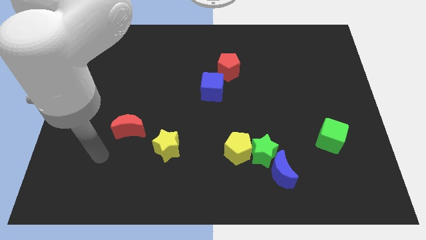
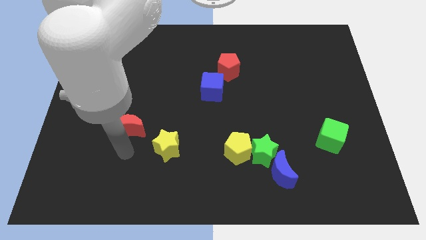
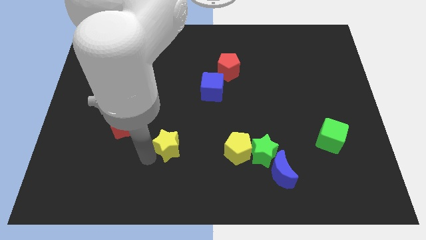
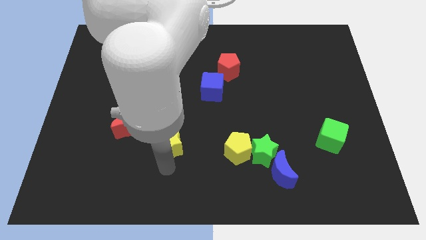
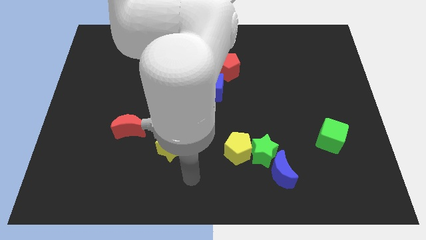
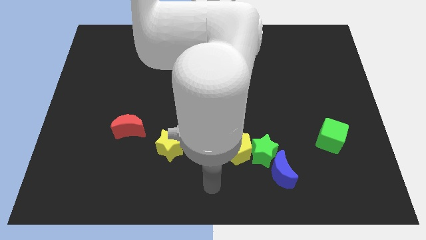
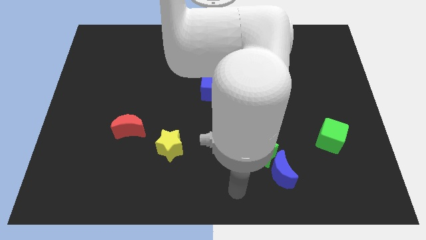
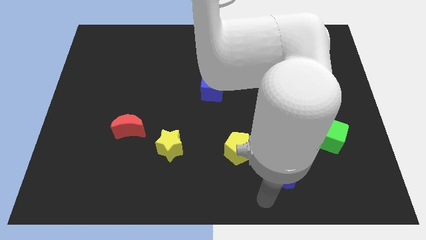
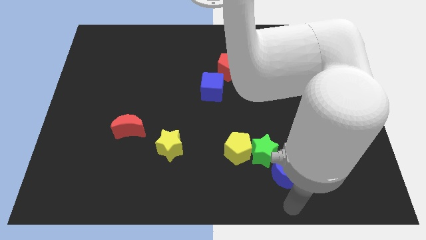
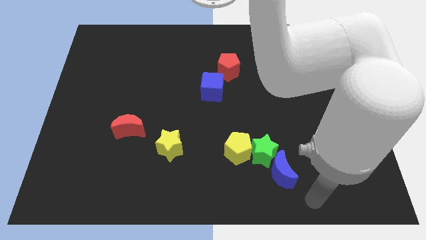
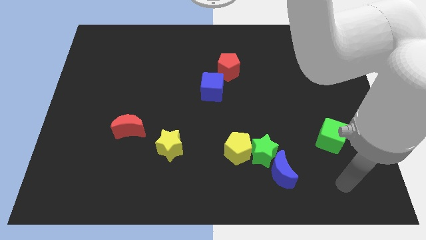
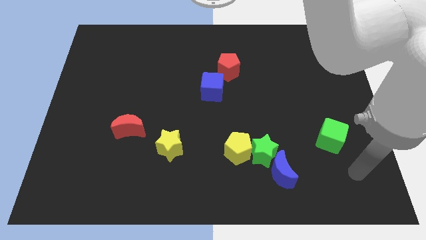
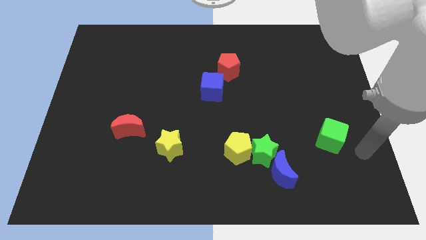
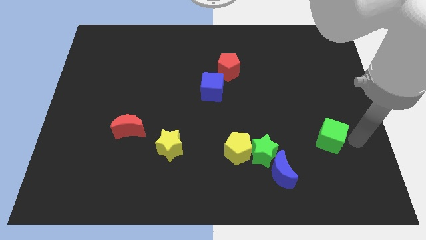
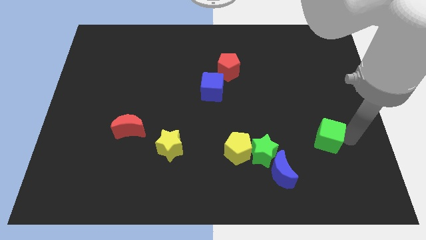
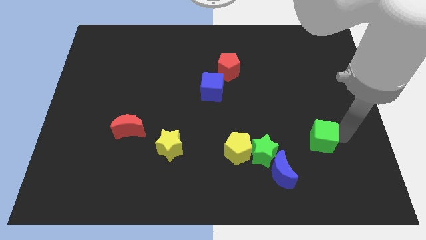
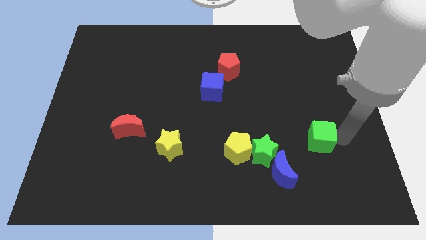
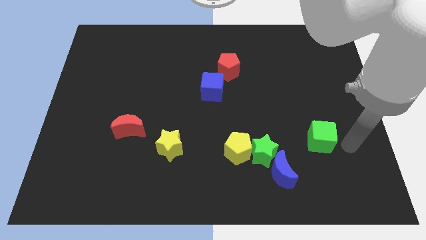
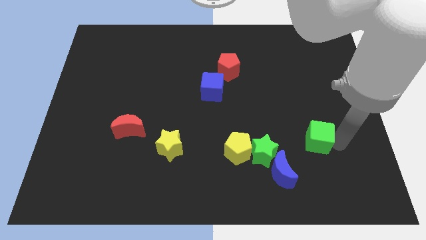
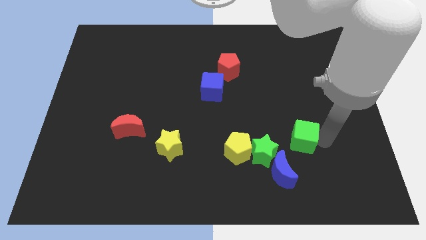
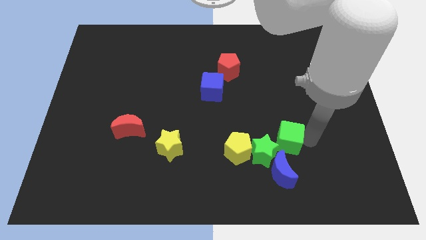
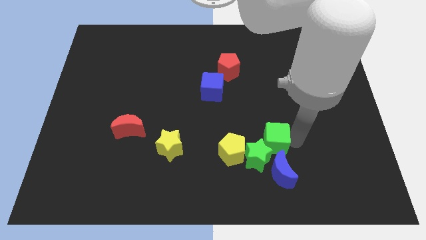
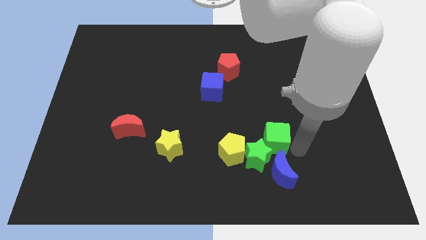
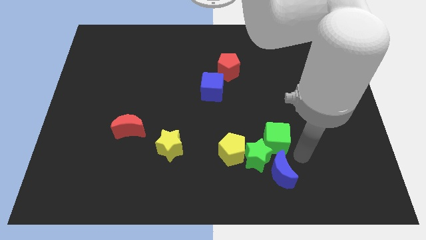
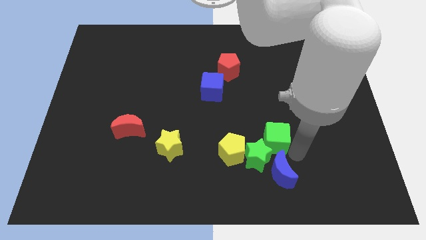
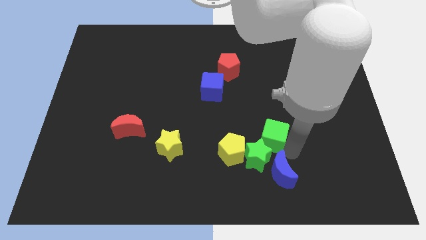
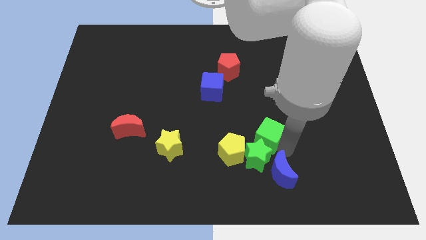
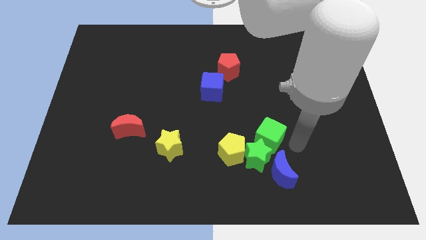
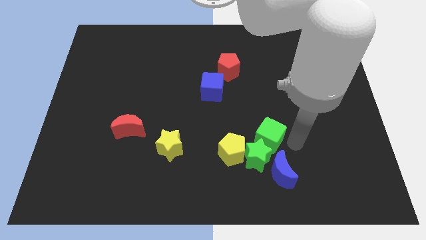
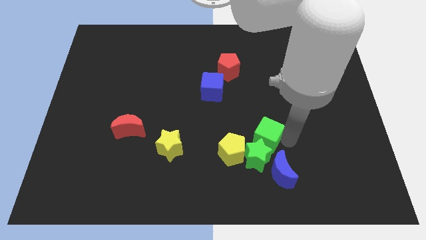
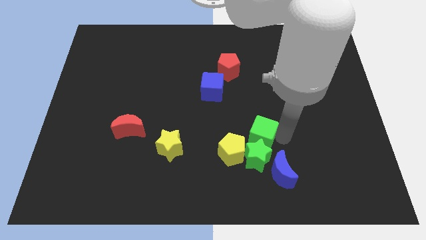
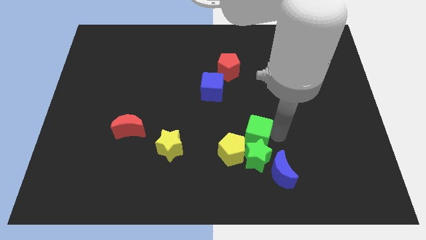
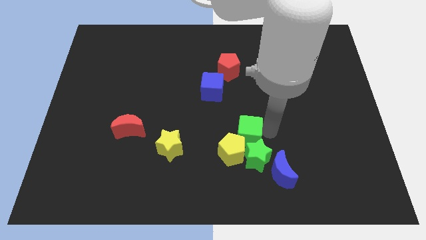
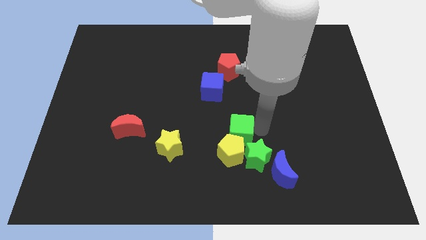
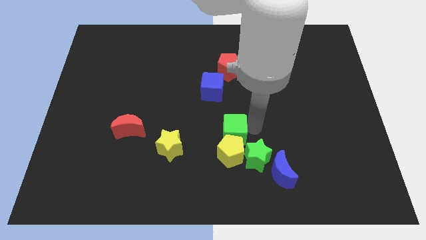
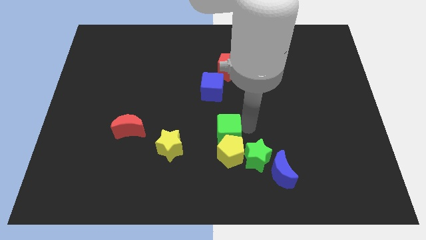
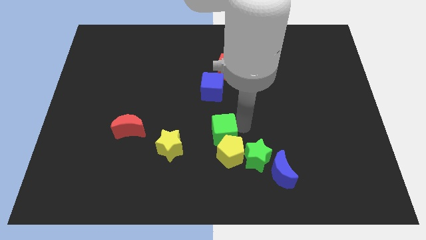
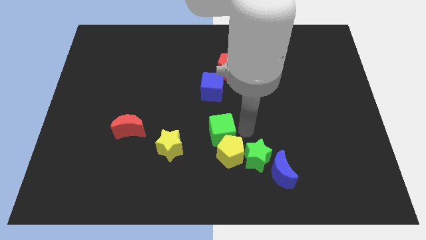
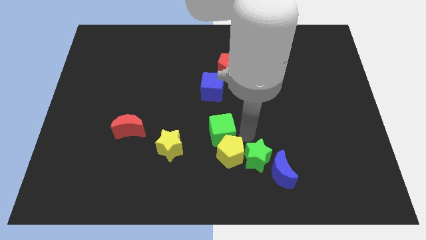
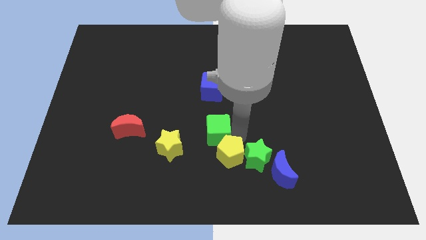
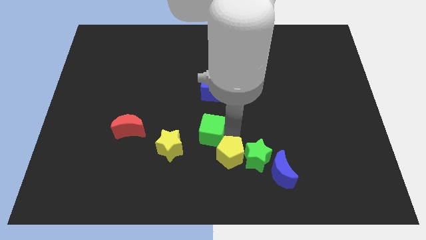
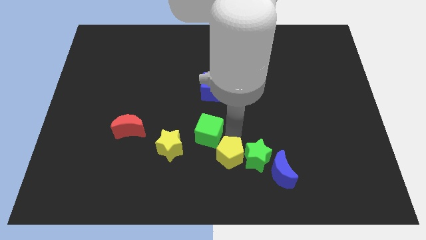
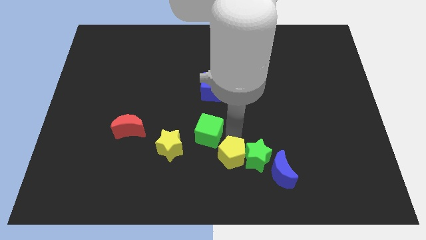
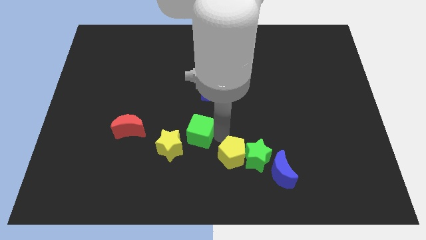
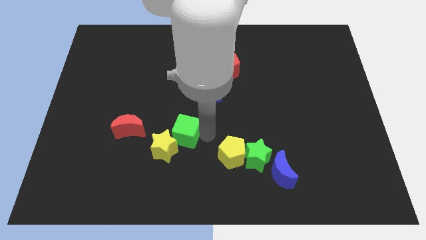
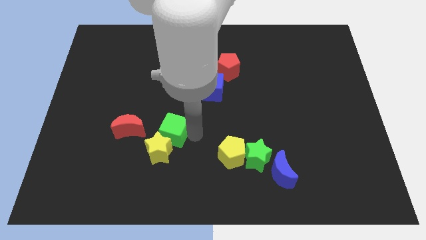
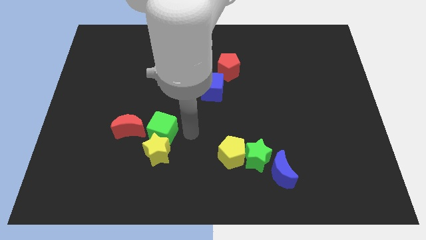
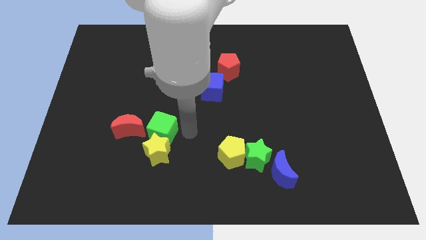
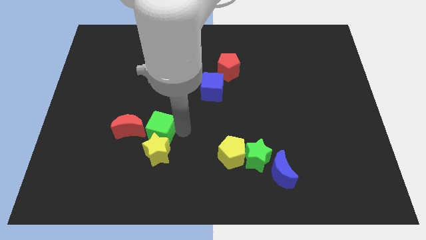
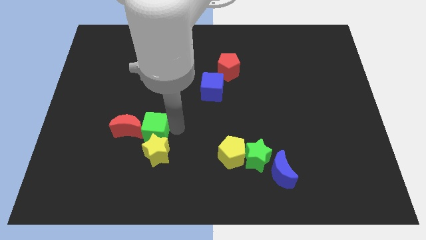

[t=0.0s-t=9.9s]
put the green cube to the red moon

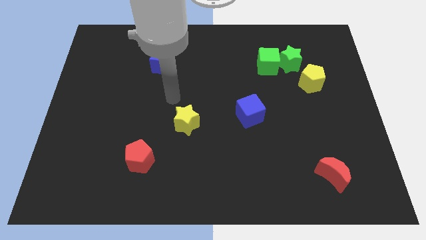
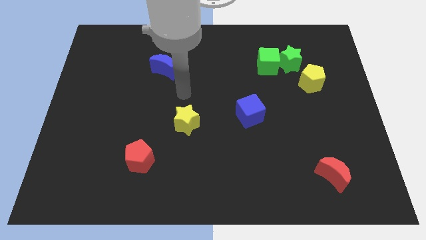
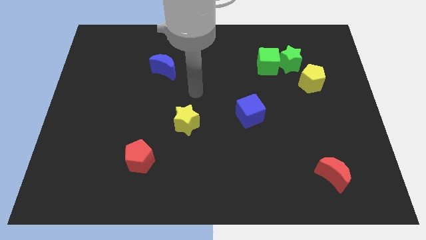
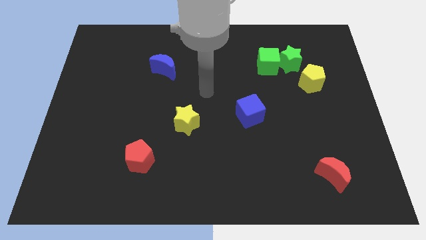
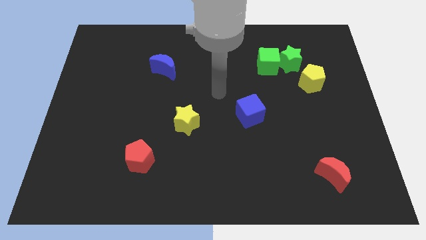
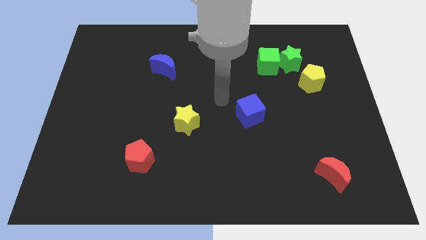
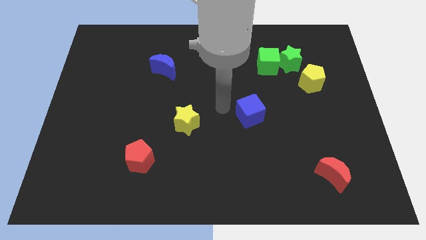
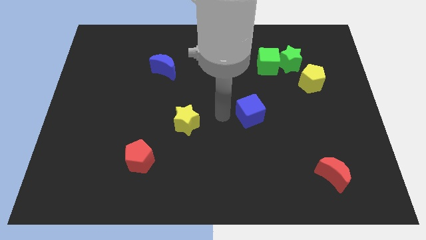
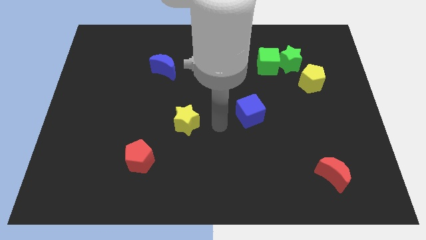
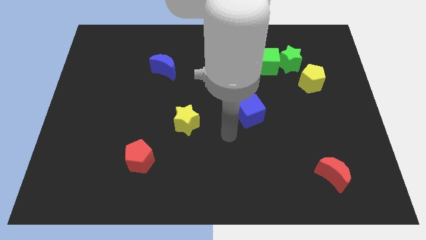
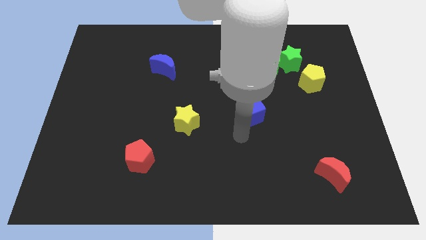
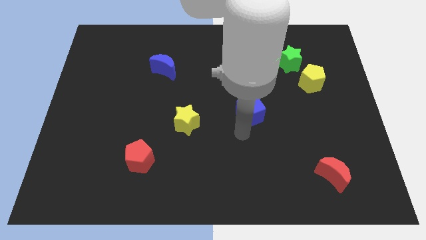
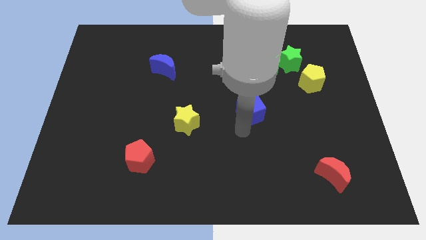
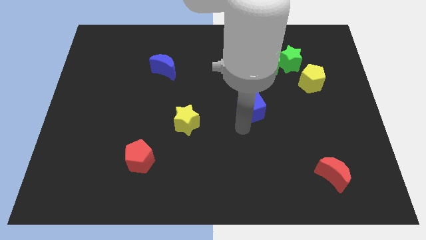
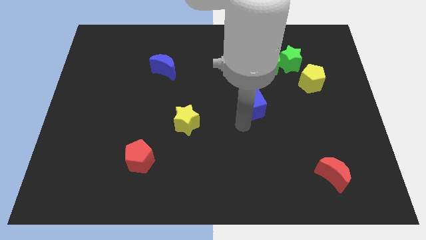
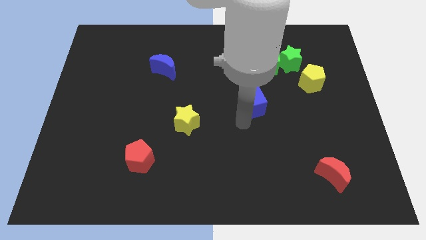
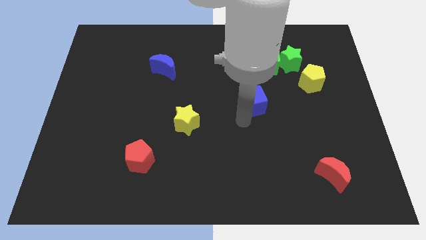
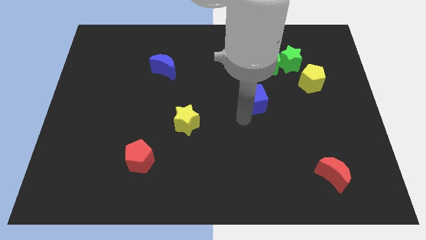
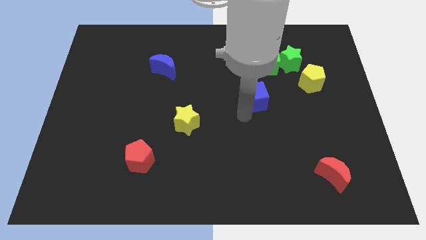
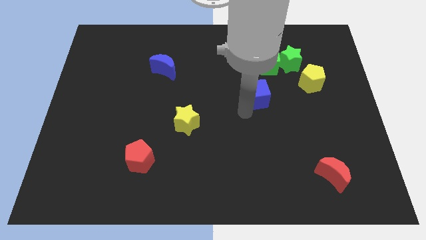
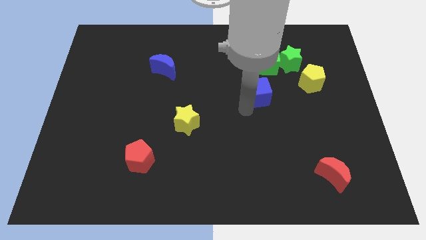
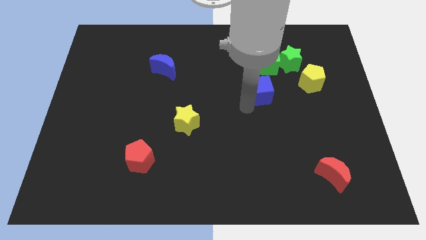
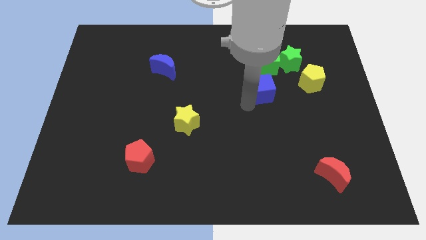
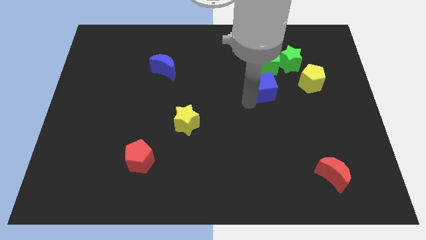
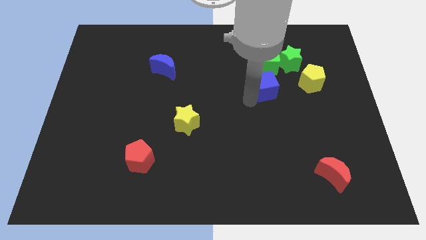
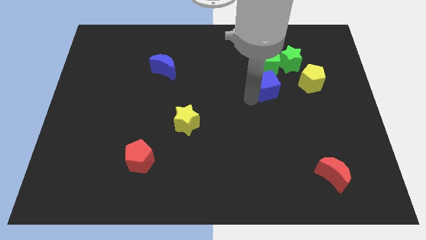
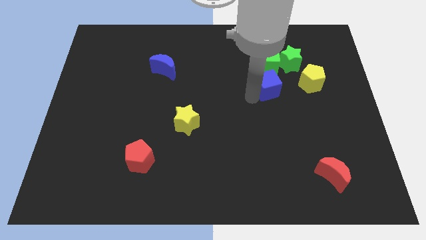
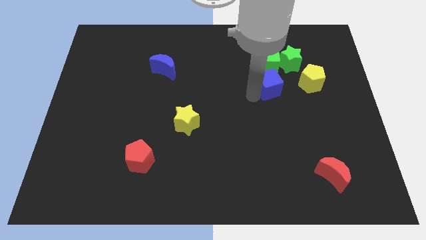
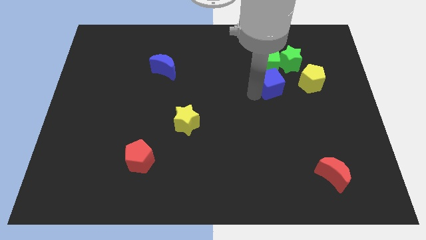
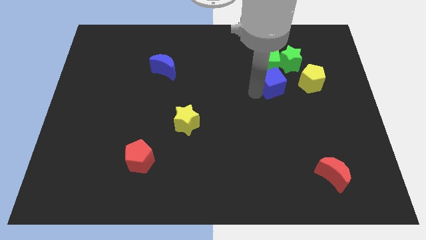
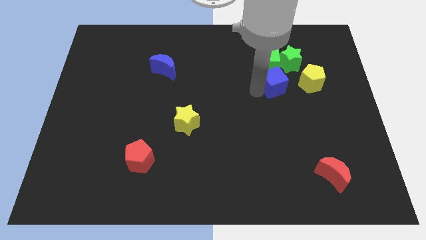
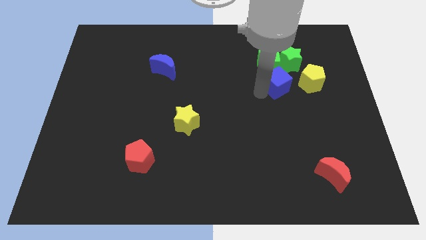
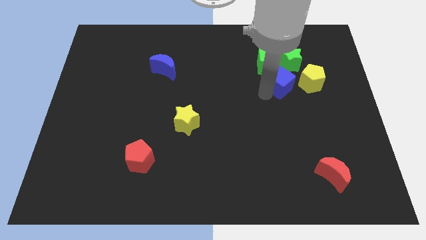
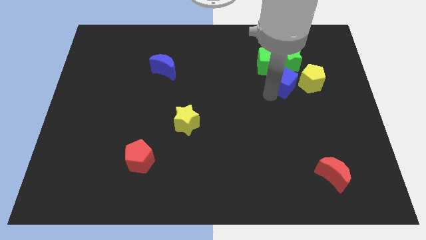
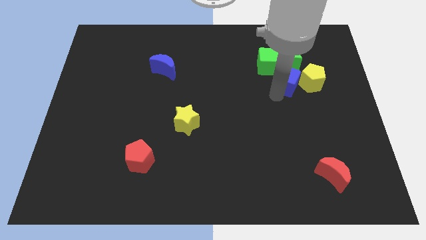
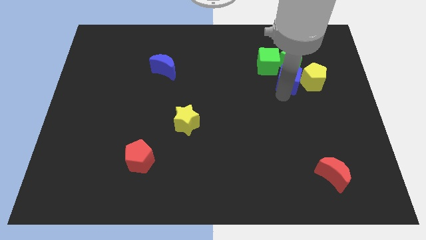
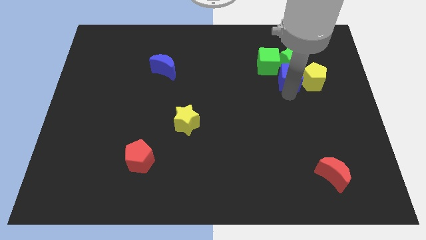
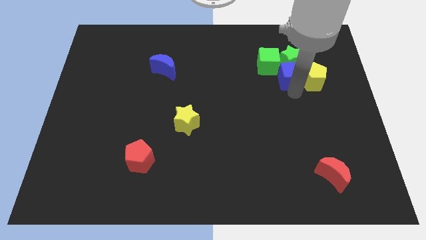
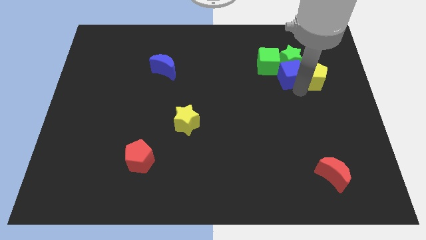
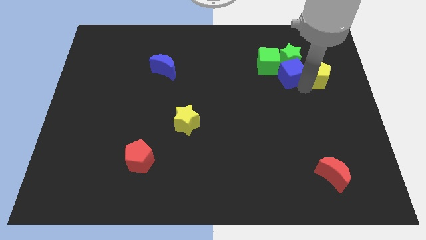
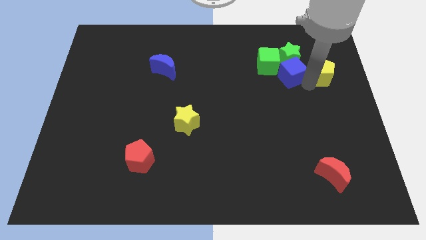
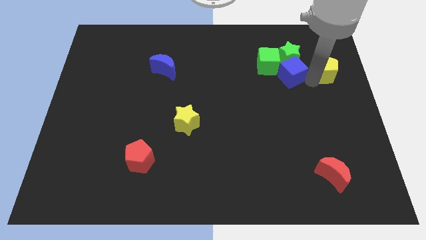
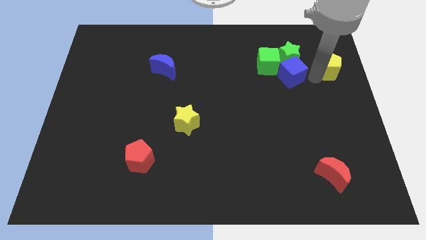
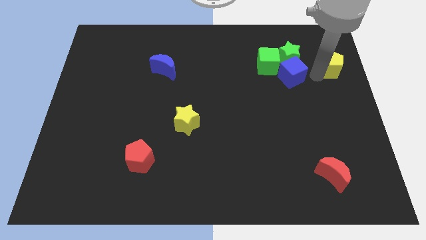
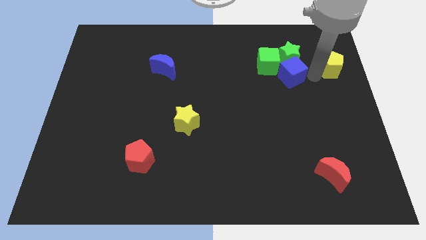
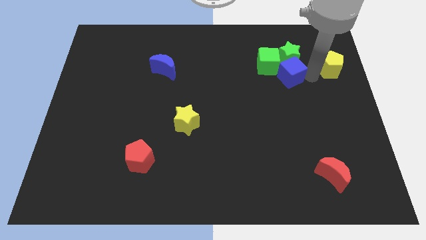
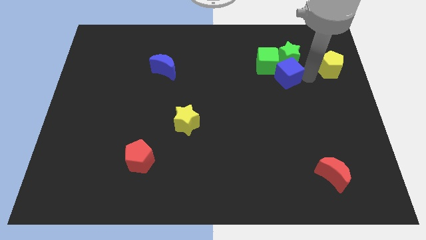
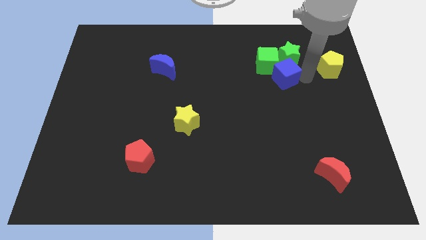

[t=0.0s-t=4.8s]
push the blue cube towards the green cube
